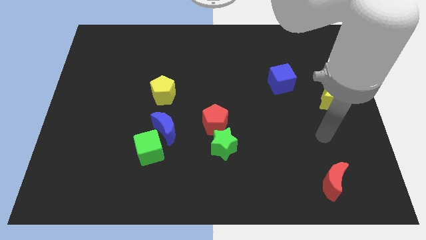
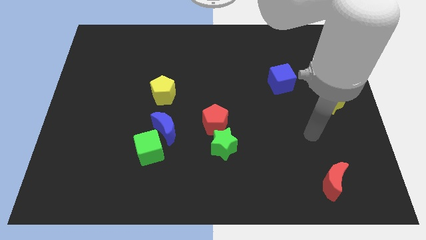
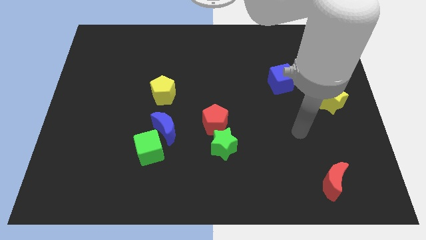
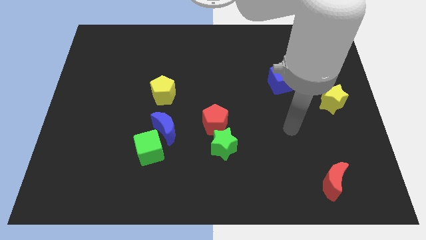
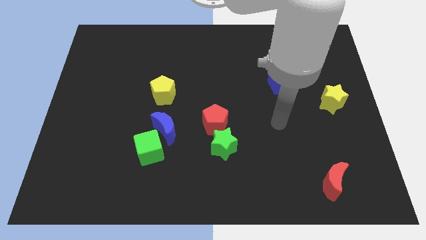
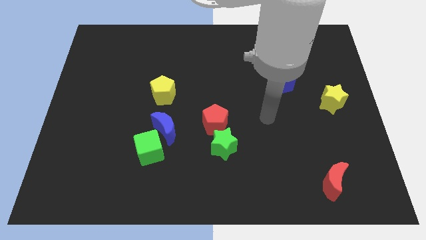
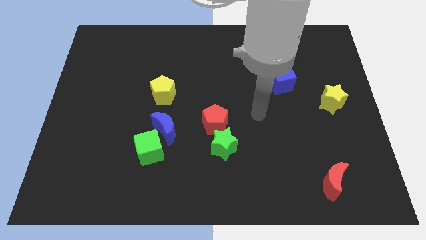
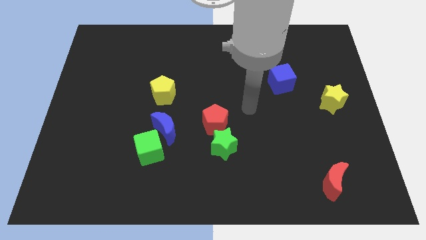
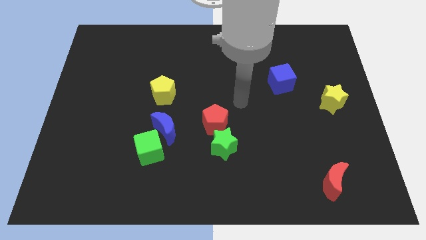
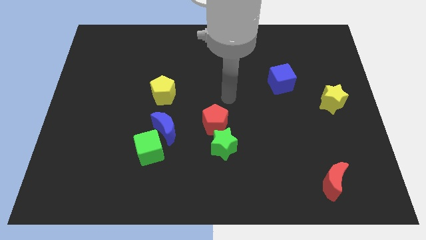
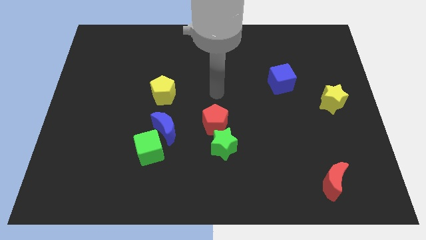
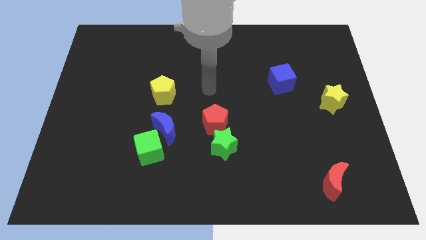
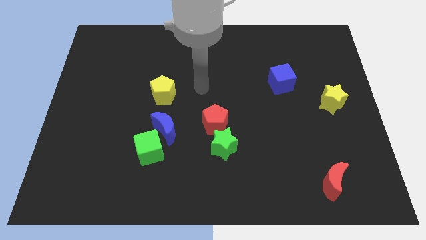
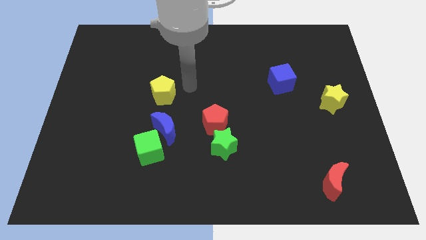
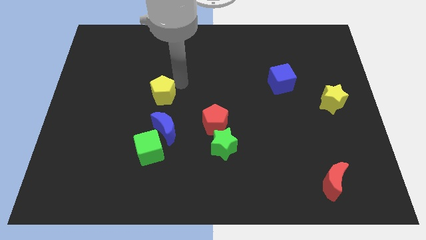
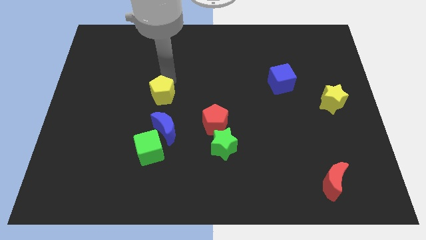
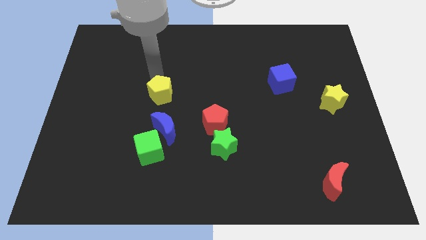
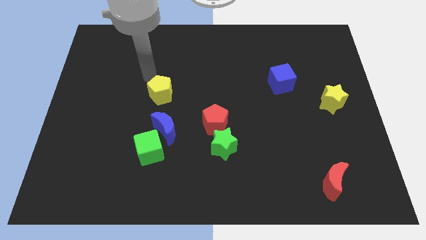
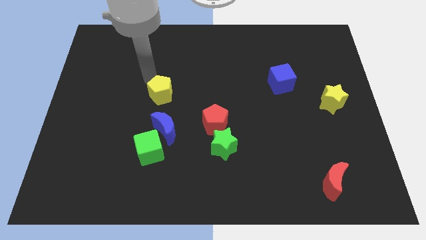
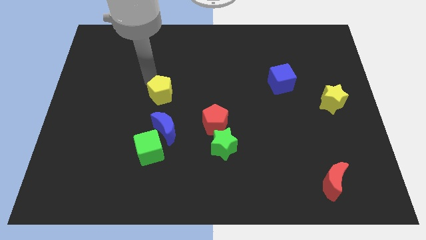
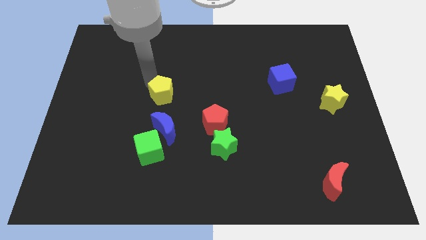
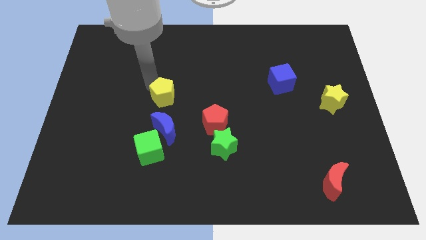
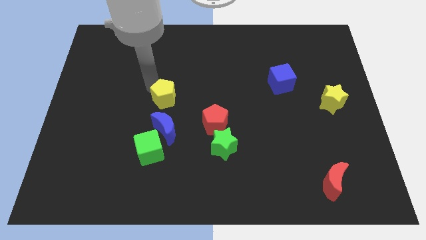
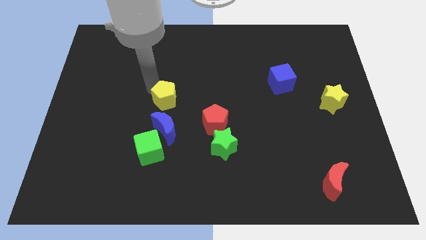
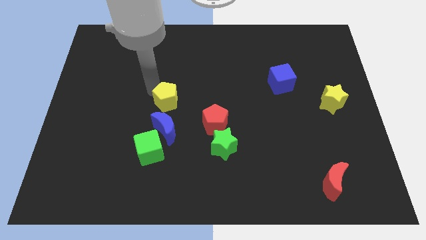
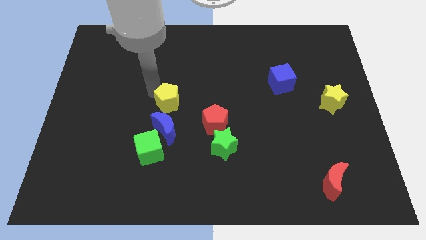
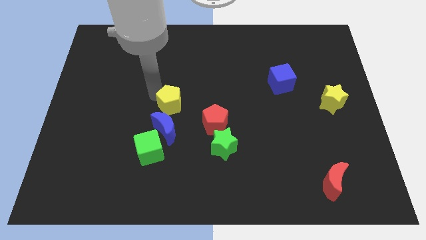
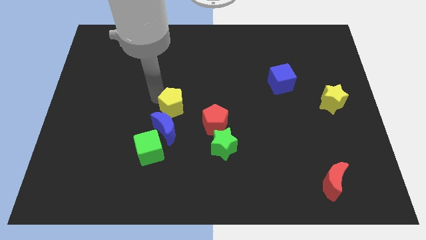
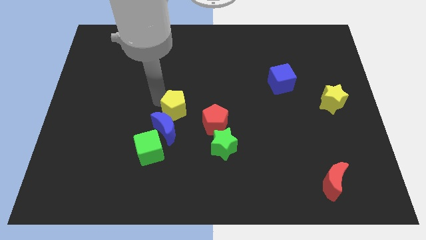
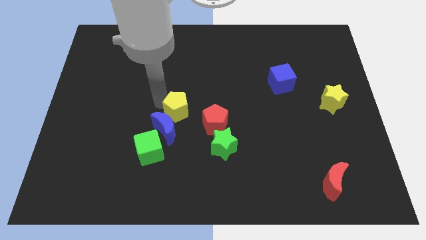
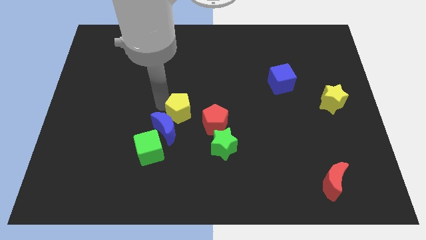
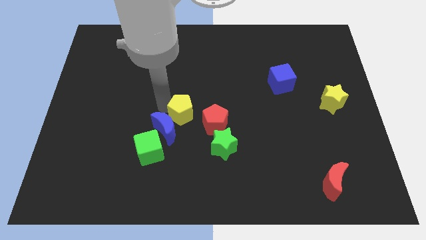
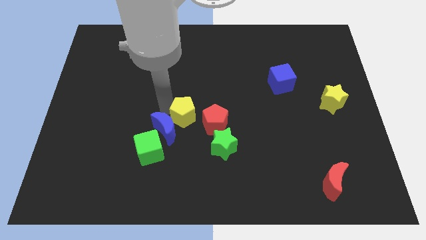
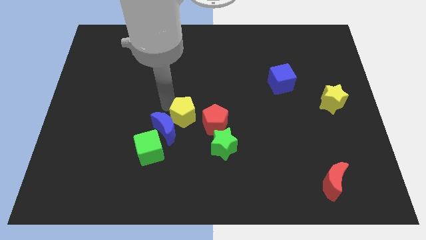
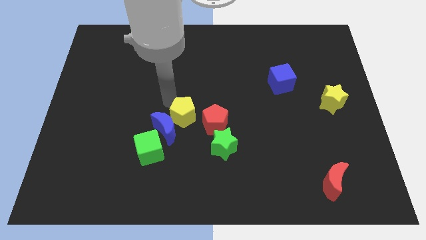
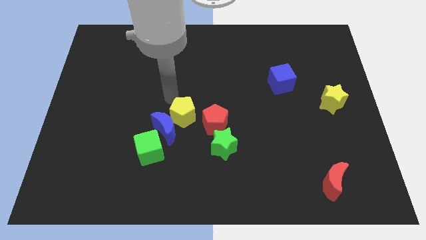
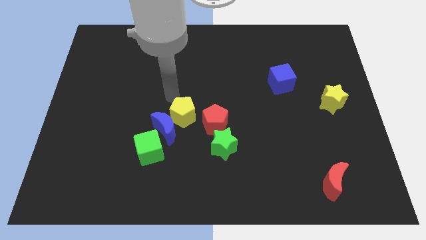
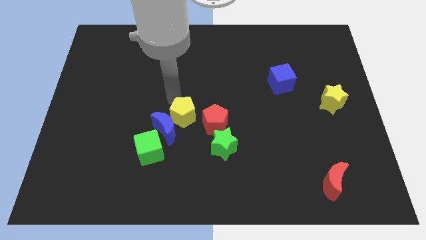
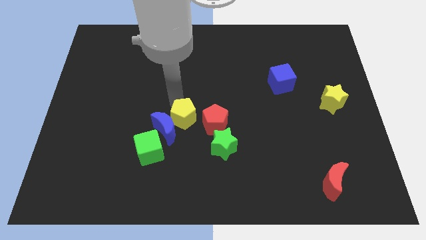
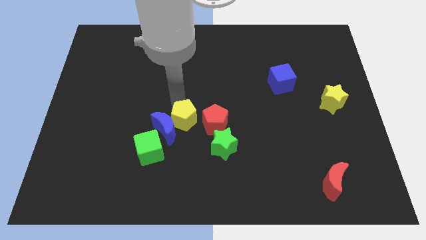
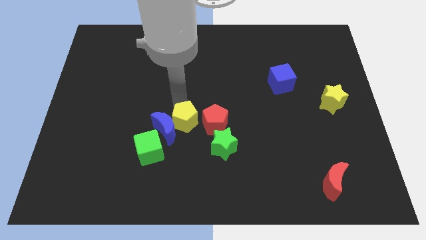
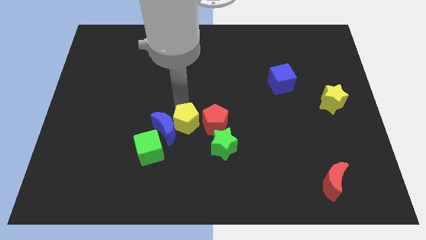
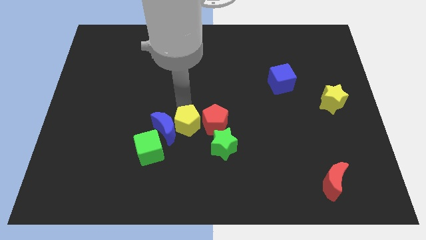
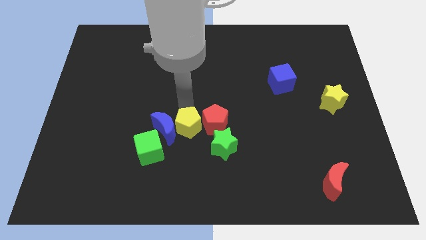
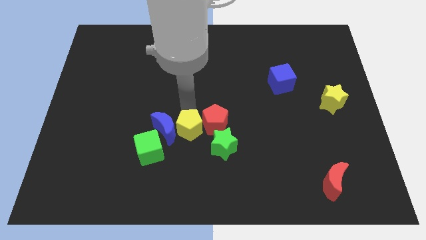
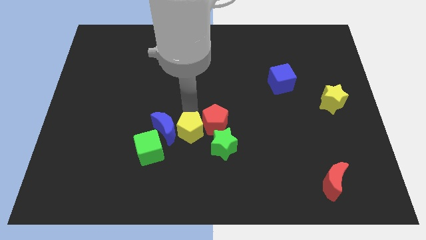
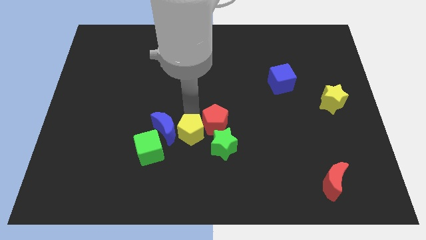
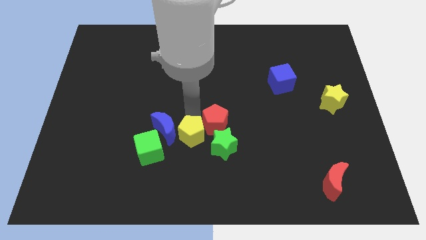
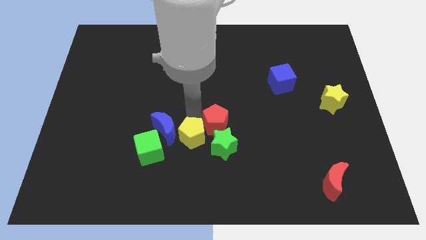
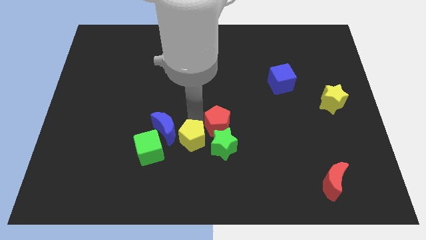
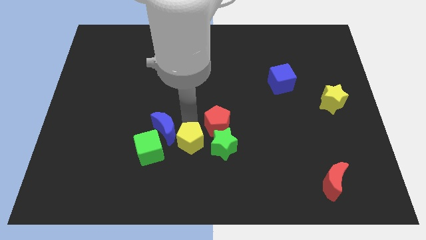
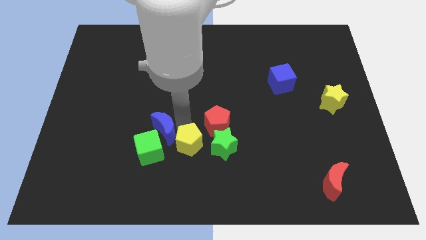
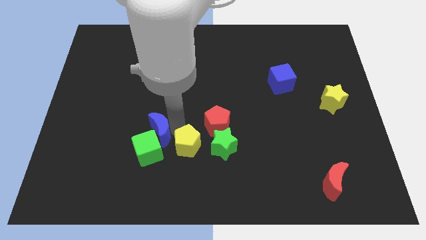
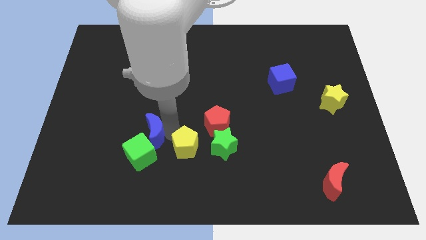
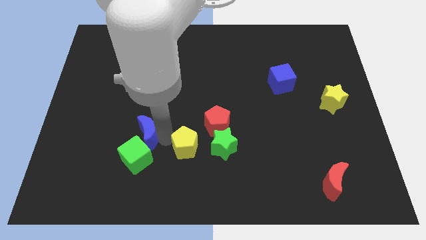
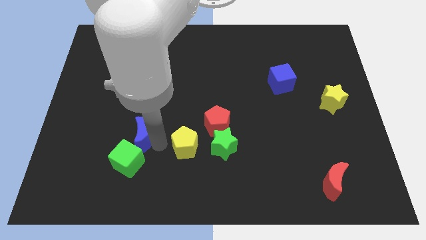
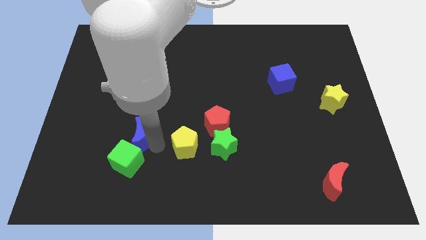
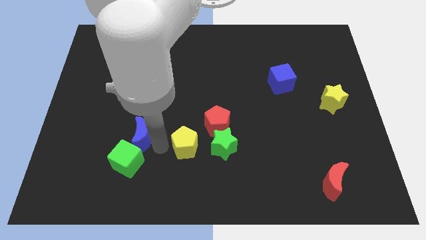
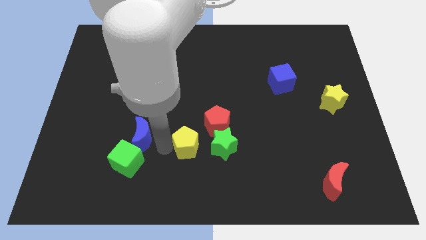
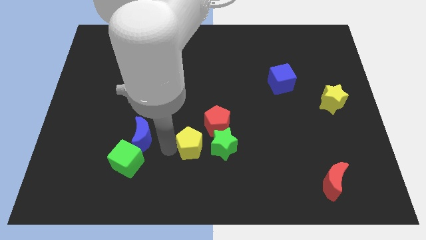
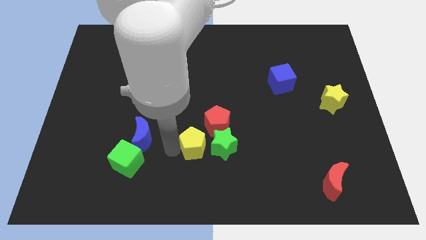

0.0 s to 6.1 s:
slide the yellow pentagon towards the green star

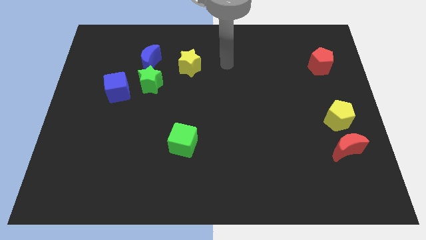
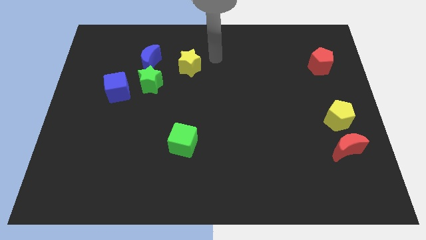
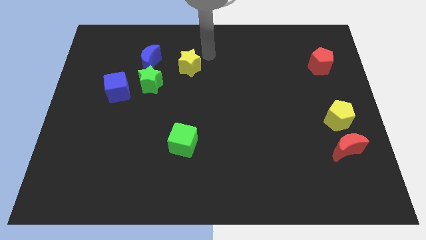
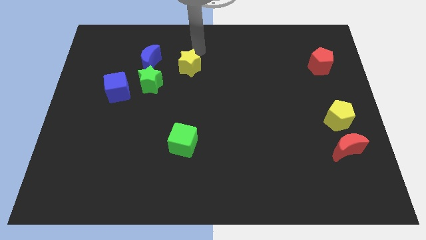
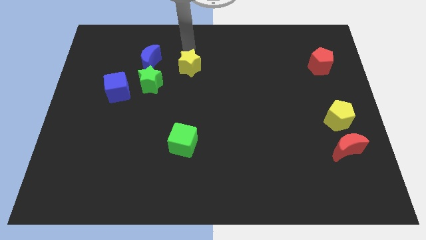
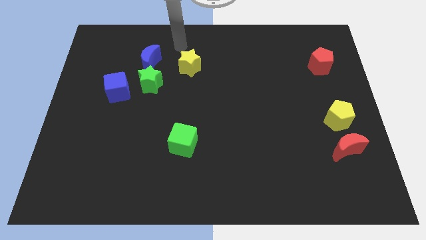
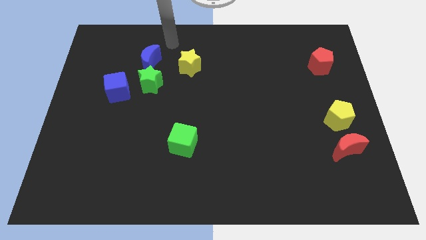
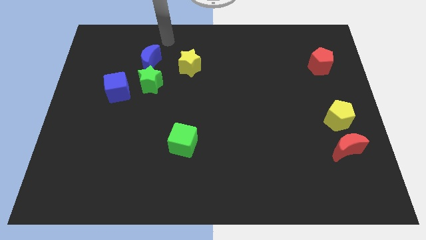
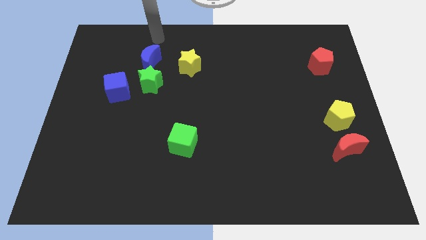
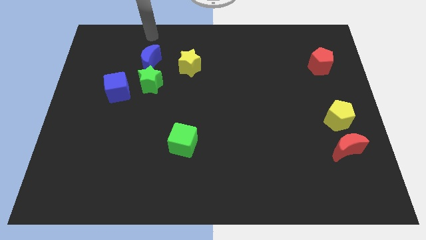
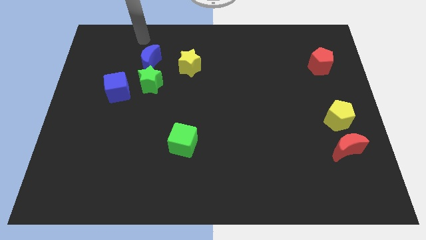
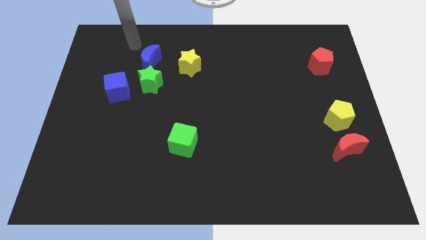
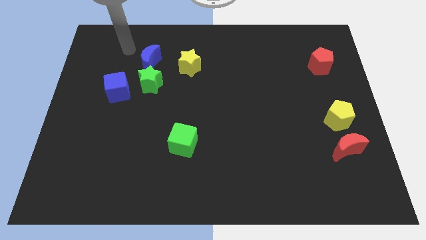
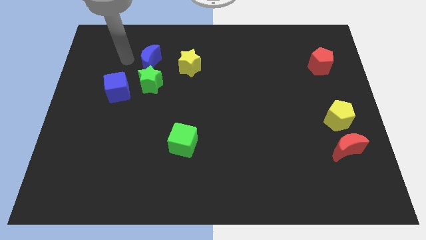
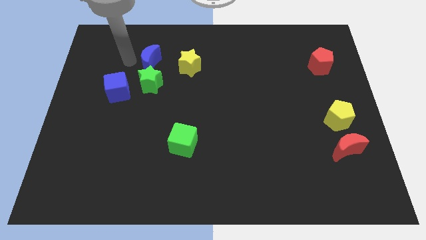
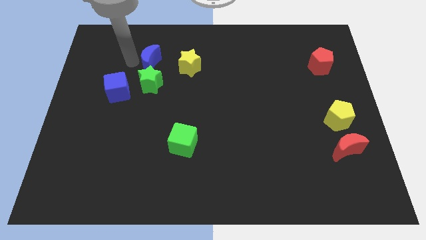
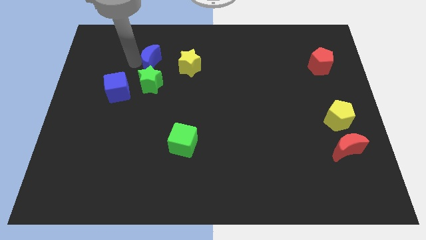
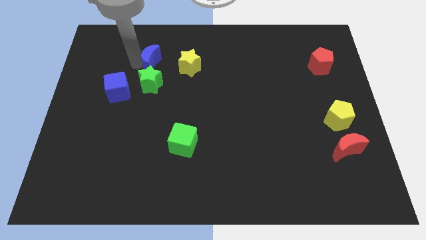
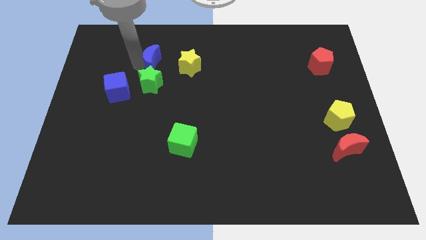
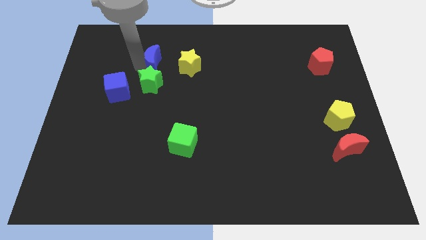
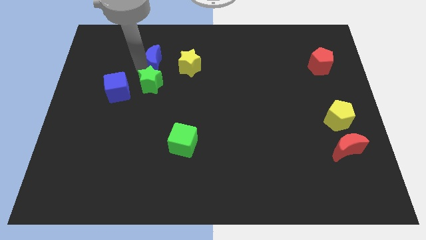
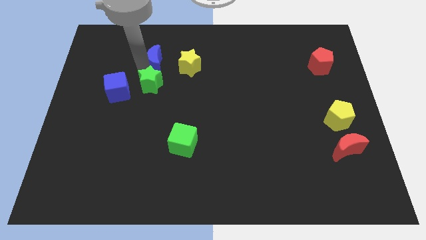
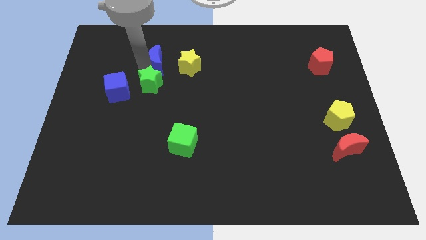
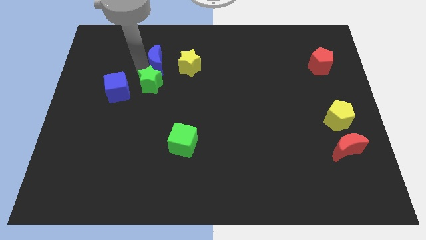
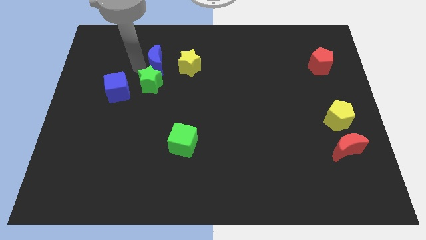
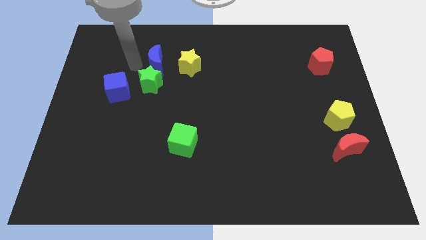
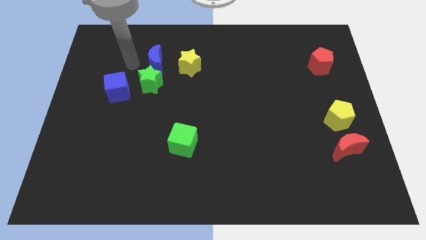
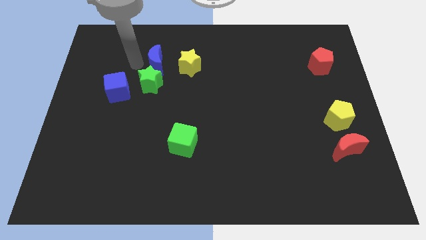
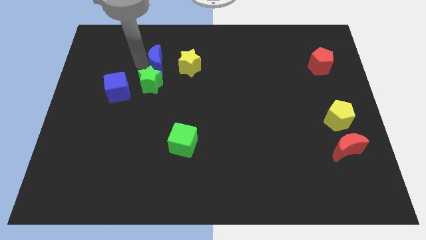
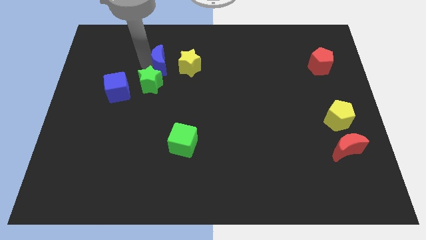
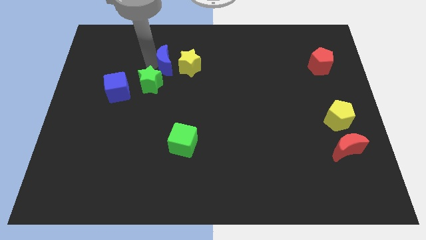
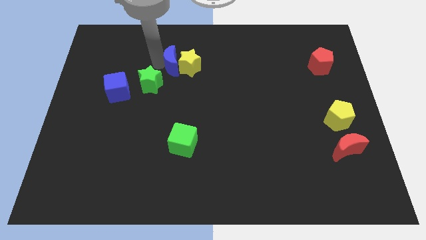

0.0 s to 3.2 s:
move the blue moon next to the yellow star
